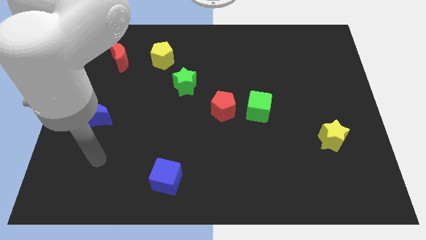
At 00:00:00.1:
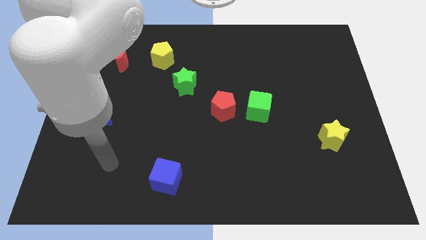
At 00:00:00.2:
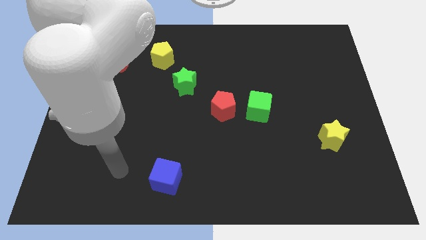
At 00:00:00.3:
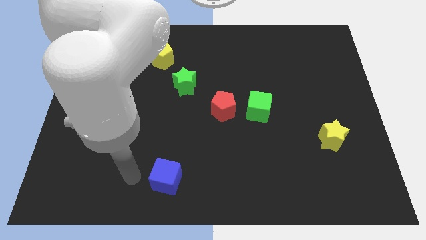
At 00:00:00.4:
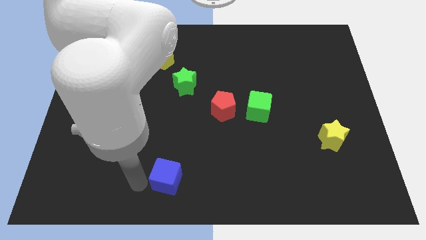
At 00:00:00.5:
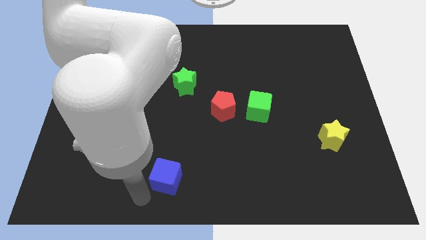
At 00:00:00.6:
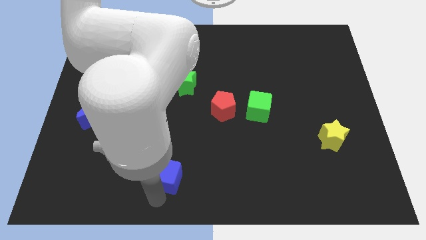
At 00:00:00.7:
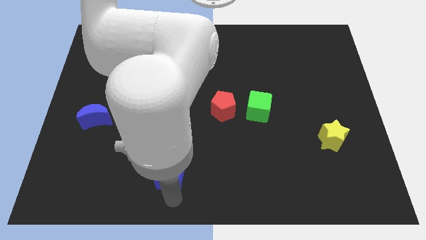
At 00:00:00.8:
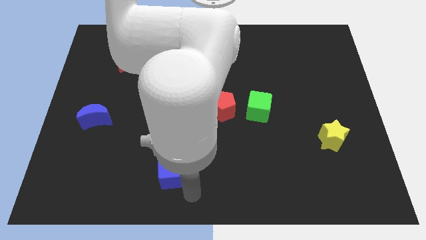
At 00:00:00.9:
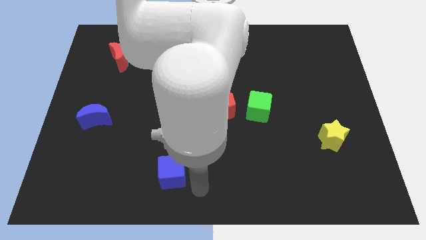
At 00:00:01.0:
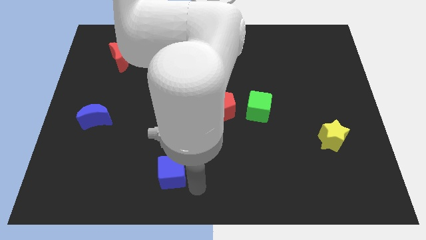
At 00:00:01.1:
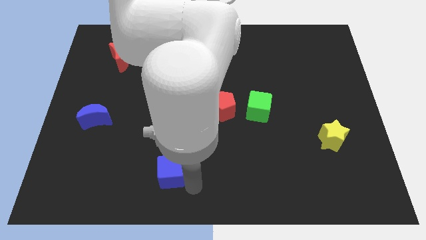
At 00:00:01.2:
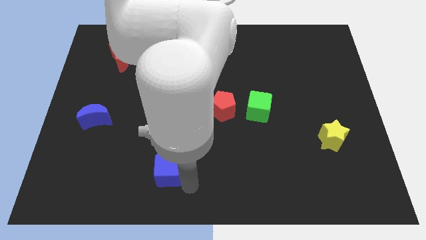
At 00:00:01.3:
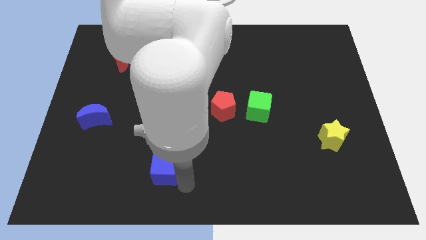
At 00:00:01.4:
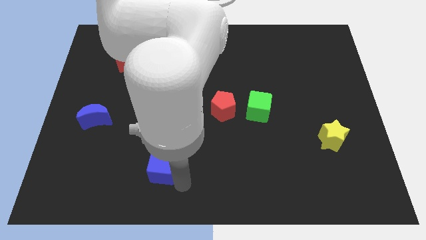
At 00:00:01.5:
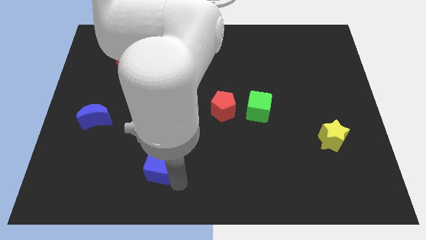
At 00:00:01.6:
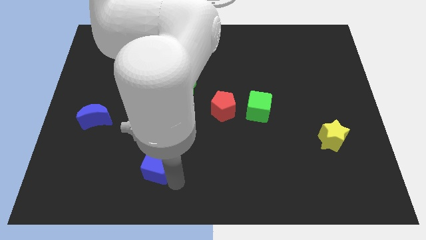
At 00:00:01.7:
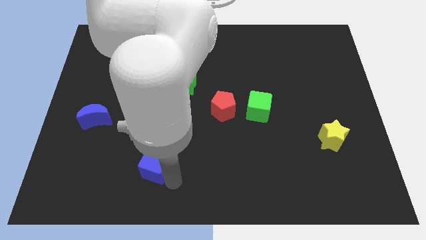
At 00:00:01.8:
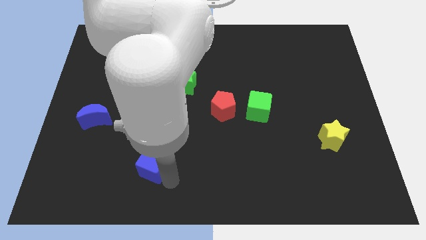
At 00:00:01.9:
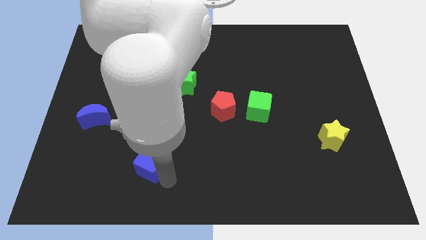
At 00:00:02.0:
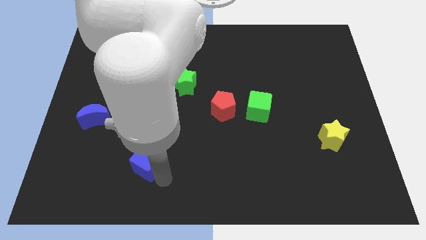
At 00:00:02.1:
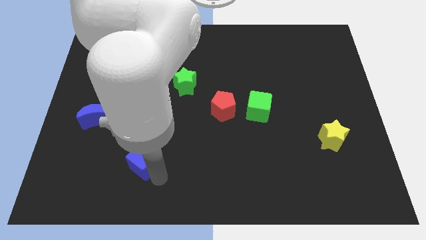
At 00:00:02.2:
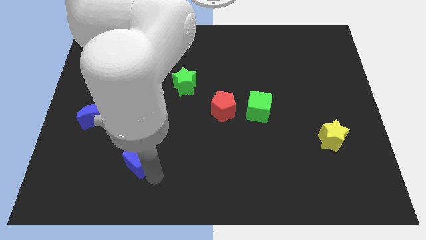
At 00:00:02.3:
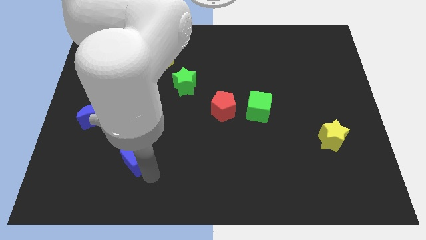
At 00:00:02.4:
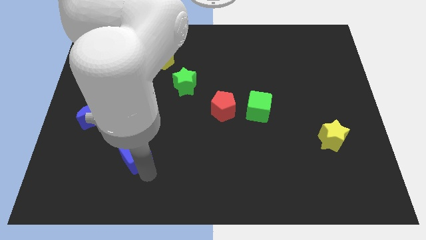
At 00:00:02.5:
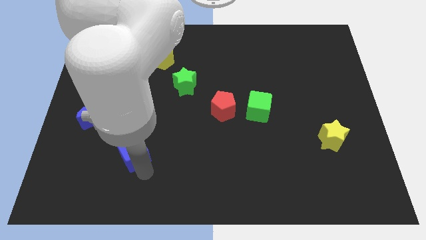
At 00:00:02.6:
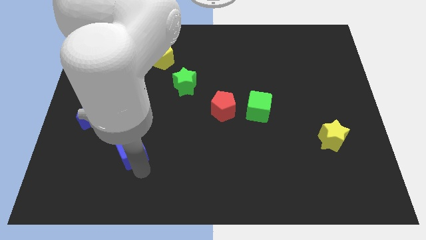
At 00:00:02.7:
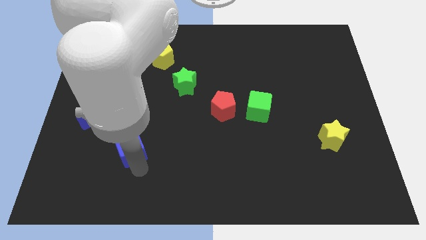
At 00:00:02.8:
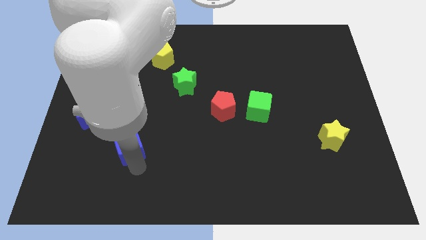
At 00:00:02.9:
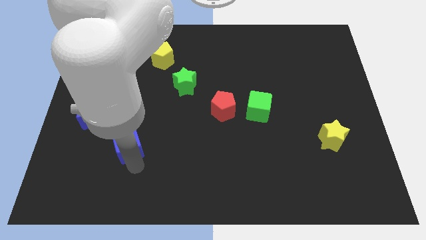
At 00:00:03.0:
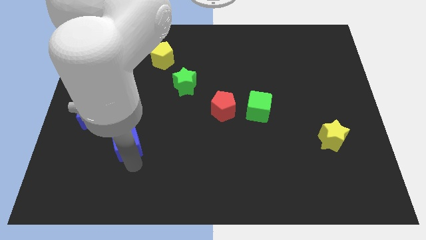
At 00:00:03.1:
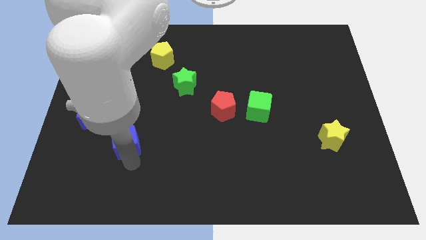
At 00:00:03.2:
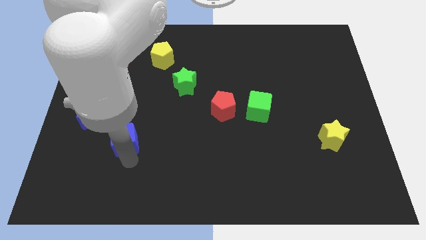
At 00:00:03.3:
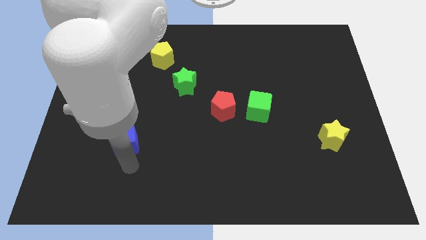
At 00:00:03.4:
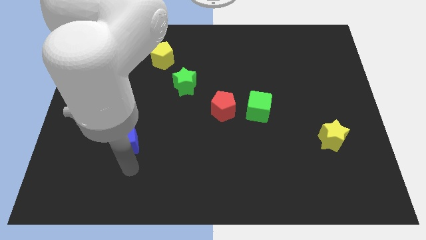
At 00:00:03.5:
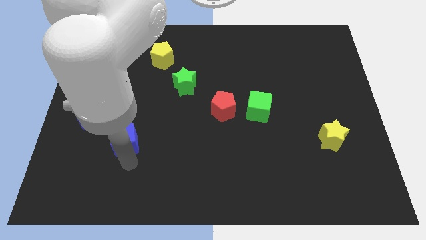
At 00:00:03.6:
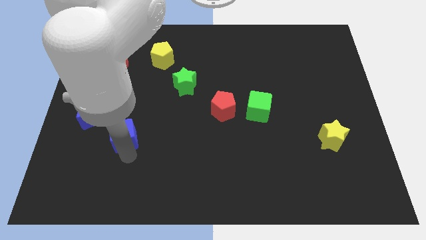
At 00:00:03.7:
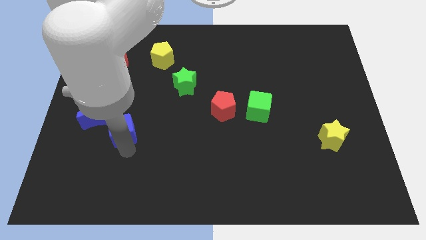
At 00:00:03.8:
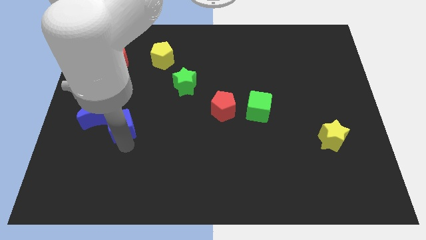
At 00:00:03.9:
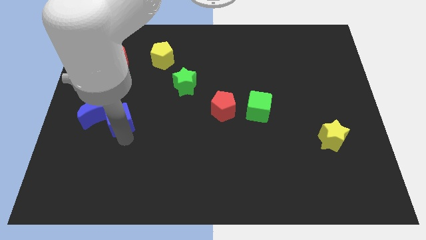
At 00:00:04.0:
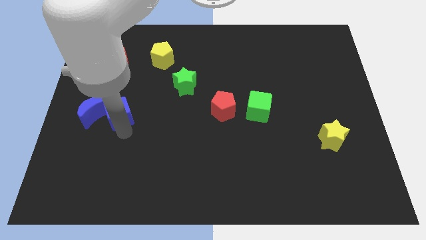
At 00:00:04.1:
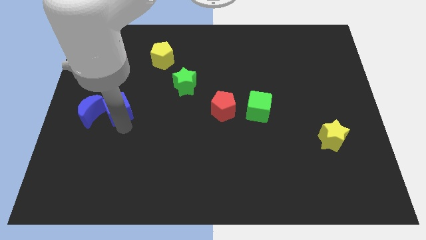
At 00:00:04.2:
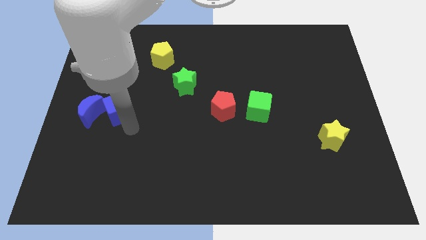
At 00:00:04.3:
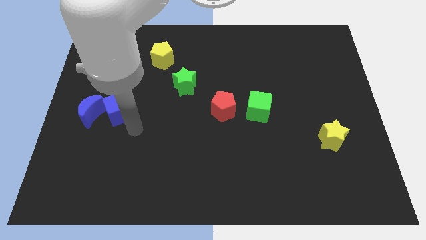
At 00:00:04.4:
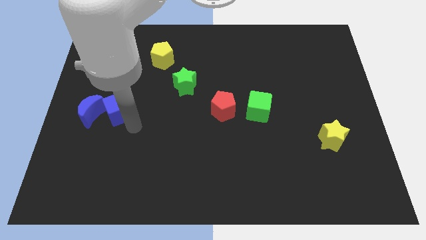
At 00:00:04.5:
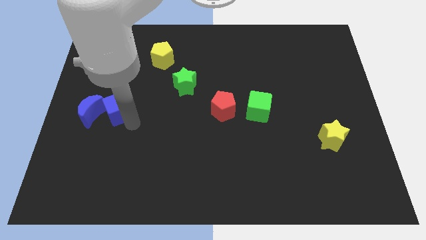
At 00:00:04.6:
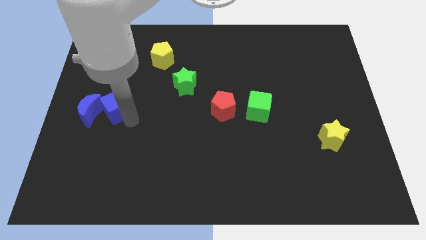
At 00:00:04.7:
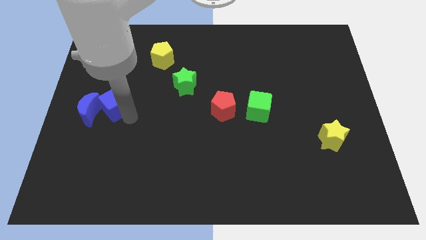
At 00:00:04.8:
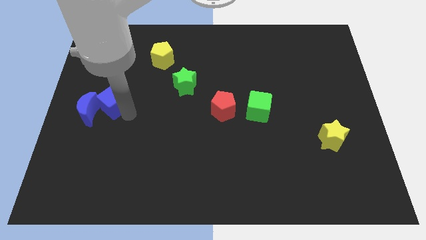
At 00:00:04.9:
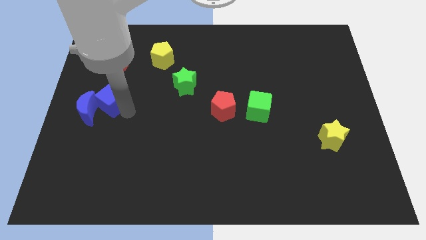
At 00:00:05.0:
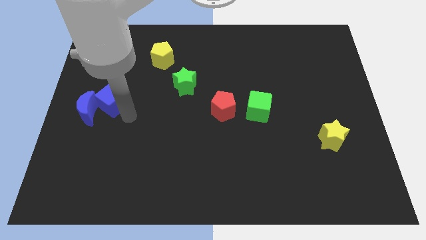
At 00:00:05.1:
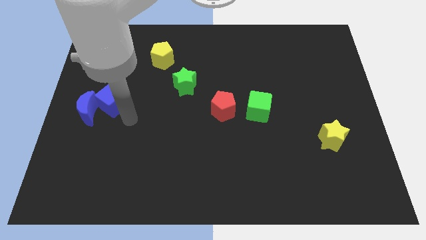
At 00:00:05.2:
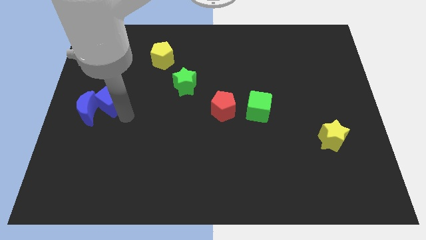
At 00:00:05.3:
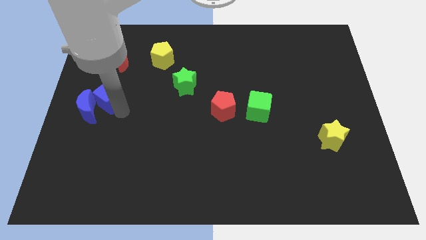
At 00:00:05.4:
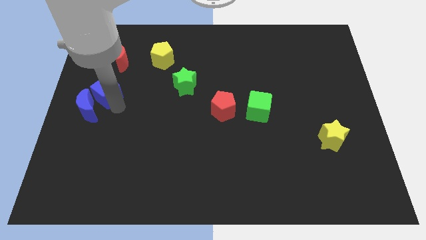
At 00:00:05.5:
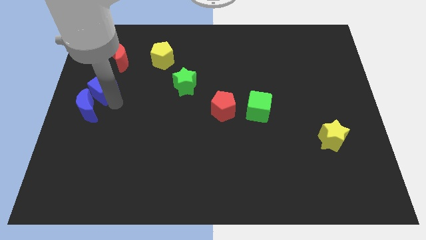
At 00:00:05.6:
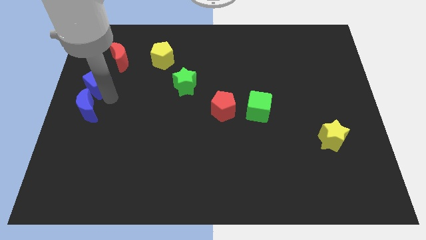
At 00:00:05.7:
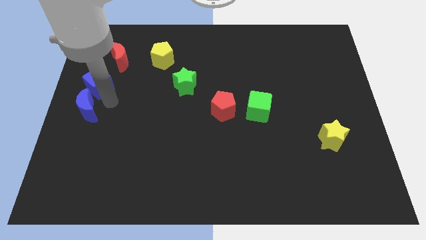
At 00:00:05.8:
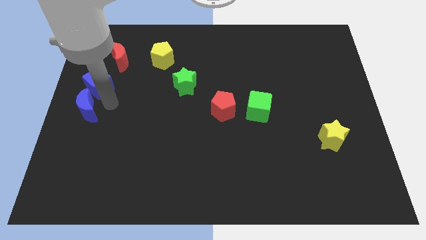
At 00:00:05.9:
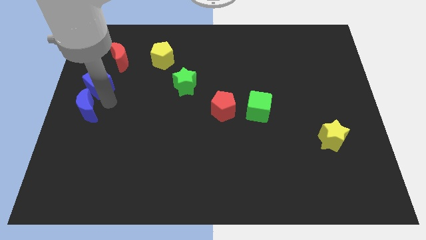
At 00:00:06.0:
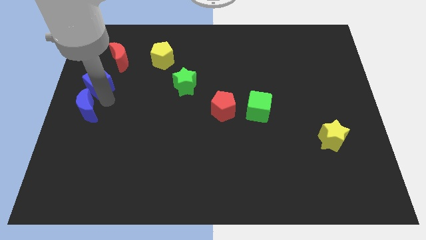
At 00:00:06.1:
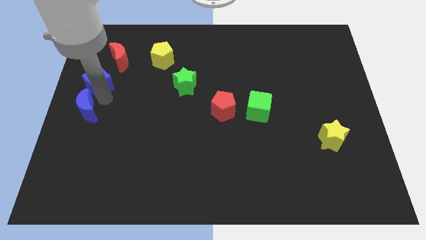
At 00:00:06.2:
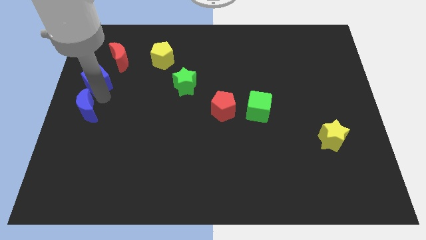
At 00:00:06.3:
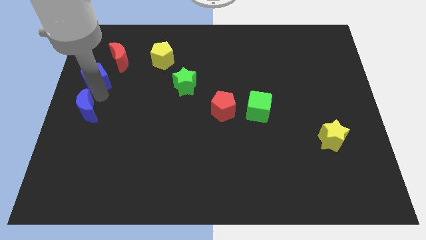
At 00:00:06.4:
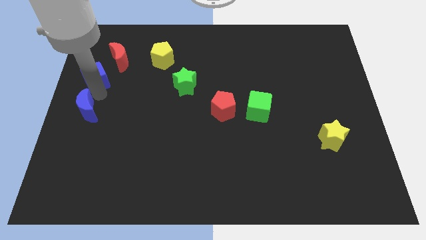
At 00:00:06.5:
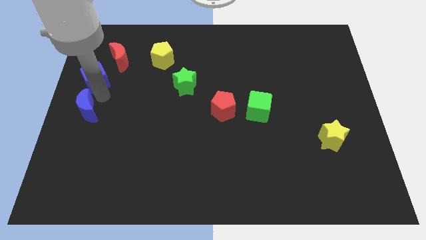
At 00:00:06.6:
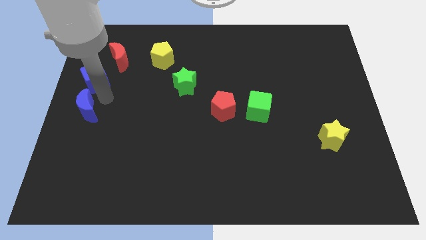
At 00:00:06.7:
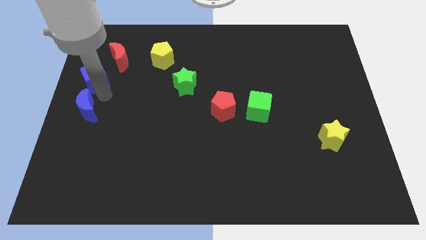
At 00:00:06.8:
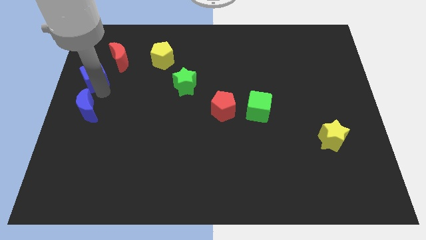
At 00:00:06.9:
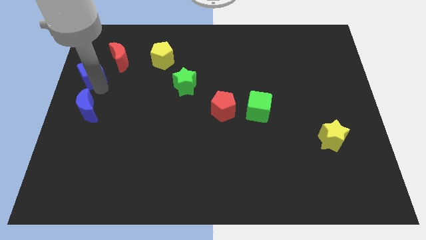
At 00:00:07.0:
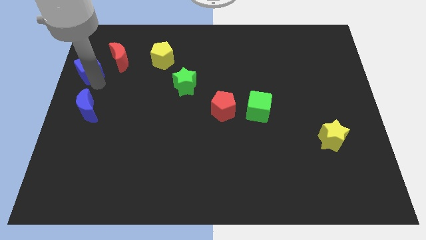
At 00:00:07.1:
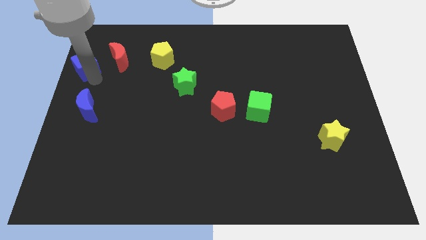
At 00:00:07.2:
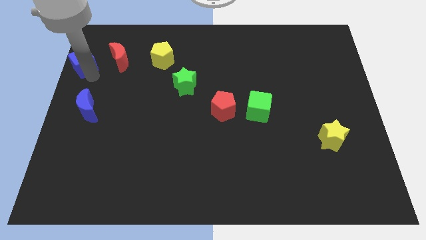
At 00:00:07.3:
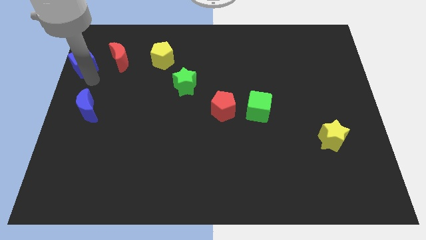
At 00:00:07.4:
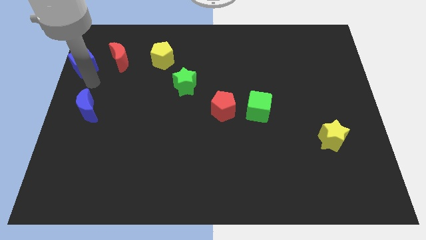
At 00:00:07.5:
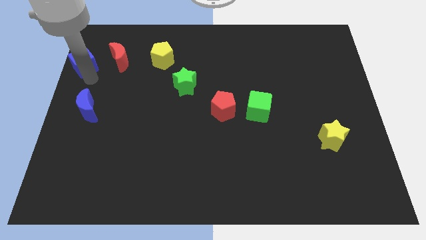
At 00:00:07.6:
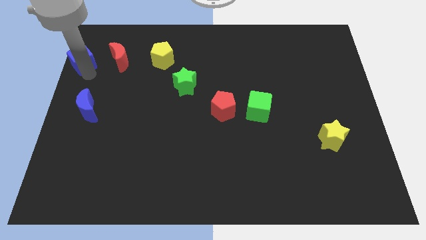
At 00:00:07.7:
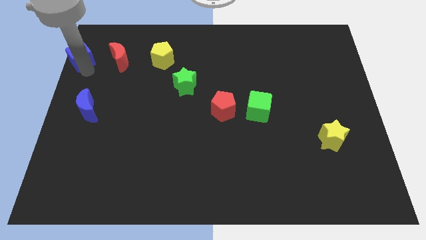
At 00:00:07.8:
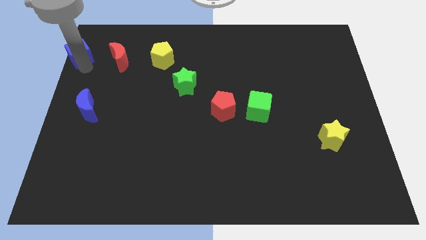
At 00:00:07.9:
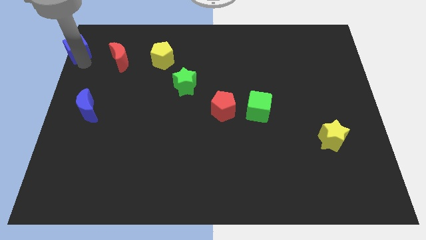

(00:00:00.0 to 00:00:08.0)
push the blue cube to the top left of the board
